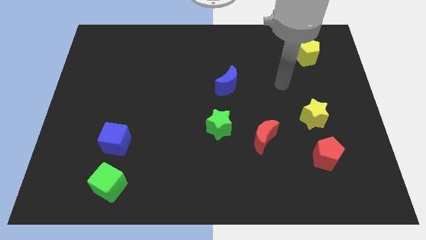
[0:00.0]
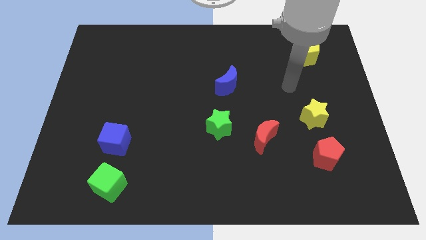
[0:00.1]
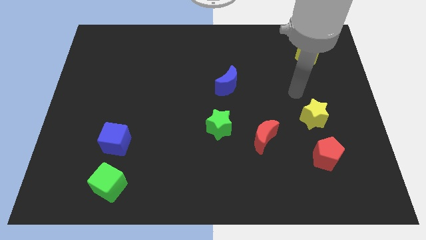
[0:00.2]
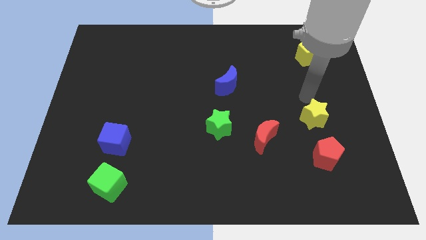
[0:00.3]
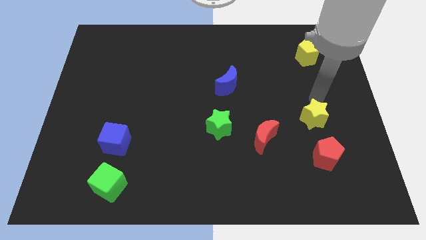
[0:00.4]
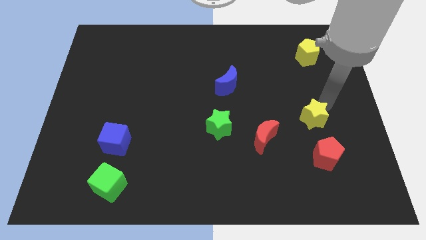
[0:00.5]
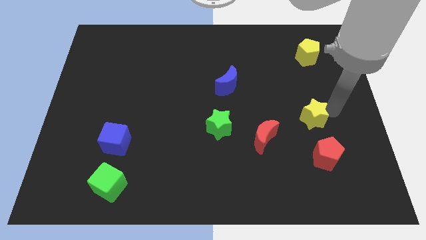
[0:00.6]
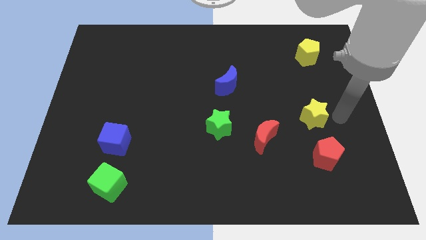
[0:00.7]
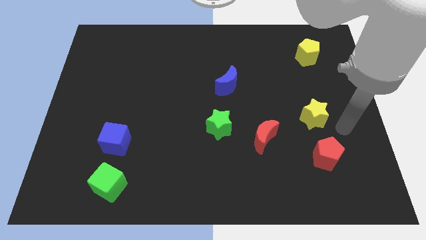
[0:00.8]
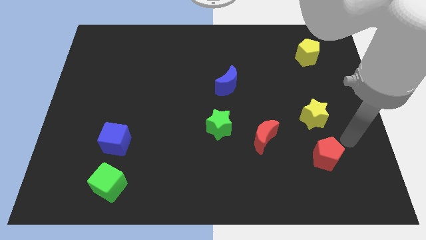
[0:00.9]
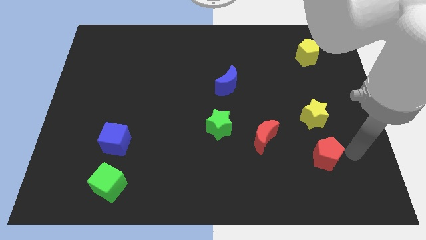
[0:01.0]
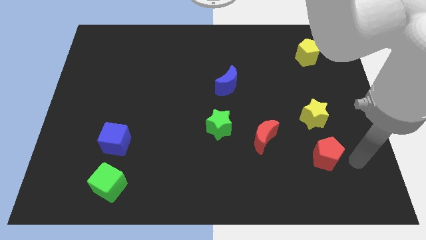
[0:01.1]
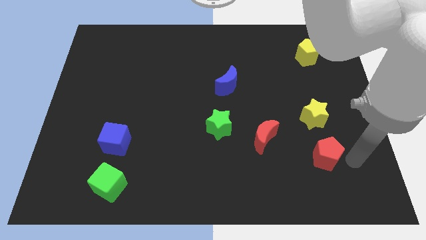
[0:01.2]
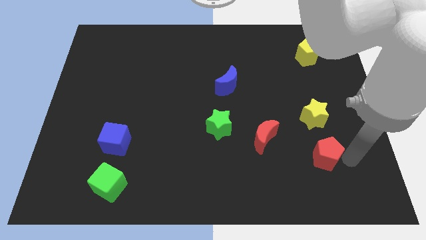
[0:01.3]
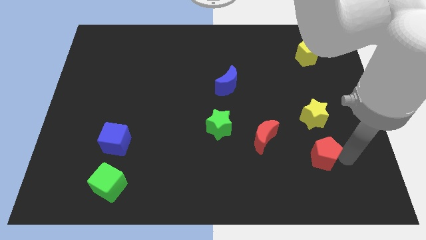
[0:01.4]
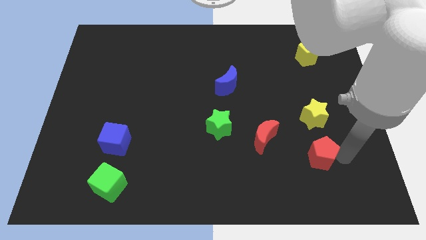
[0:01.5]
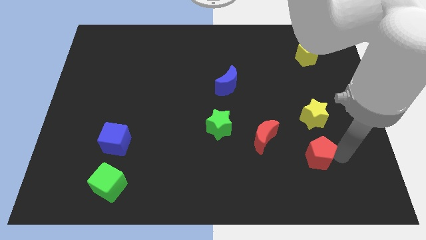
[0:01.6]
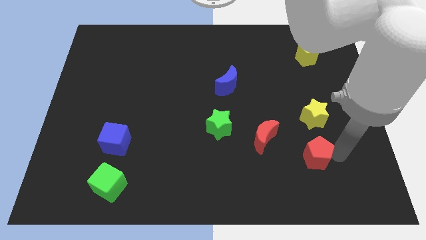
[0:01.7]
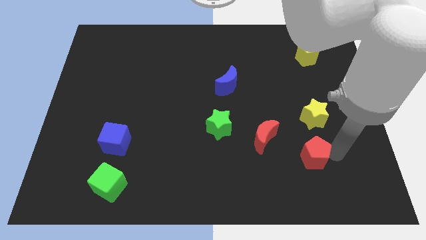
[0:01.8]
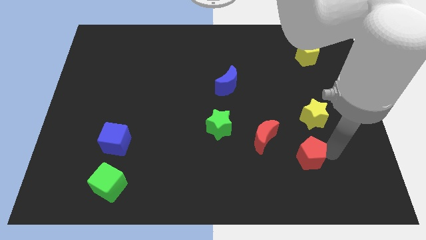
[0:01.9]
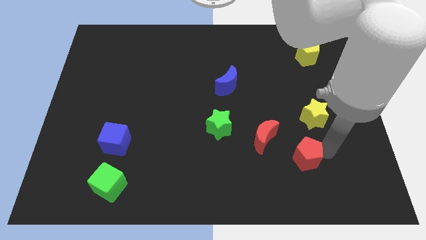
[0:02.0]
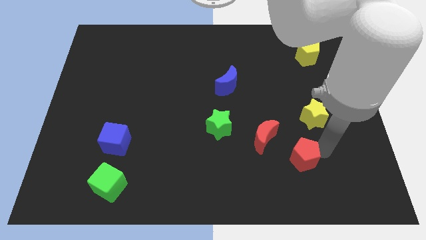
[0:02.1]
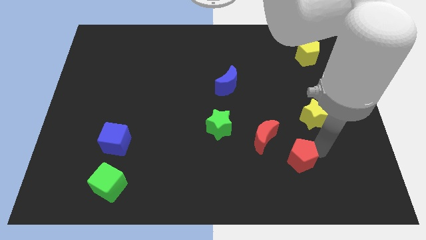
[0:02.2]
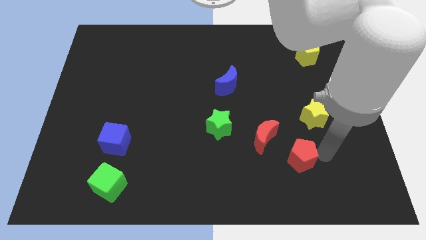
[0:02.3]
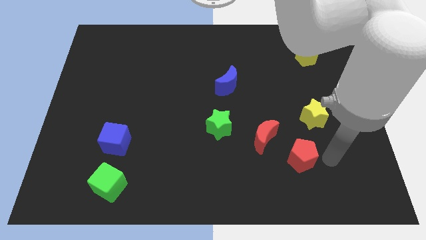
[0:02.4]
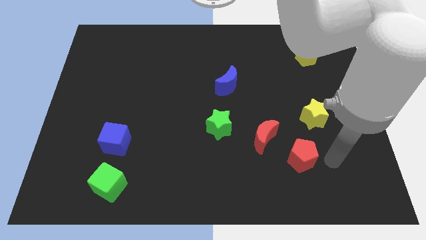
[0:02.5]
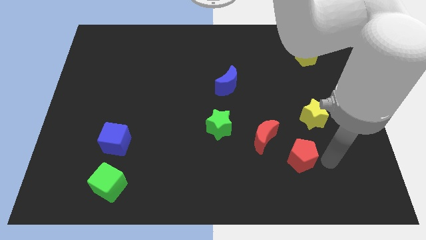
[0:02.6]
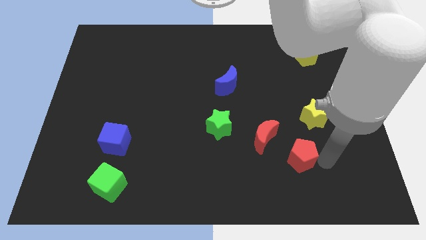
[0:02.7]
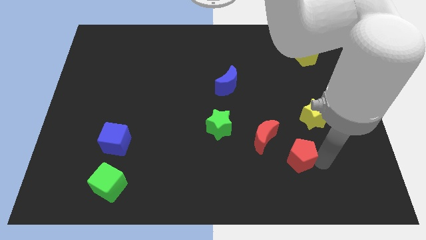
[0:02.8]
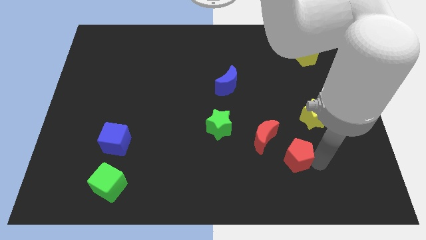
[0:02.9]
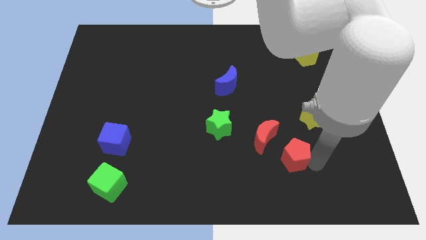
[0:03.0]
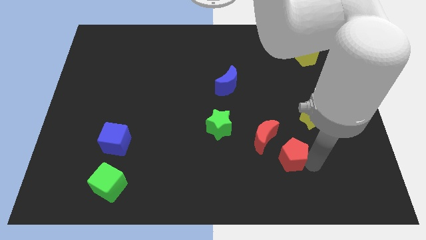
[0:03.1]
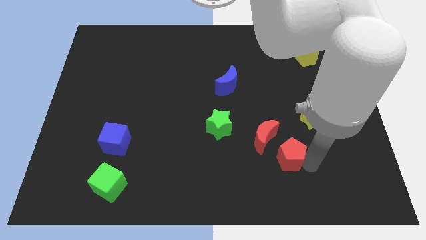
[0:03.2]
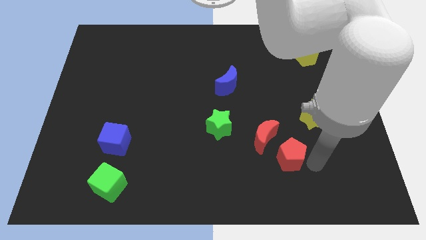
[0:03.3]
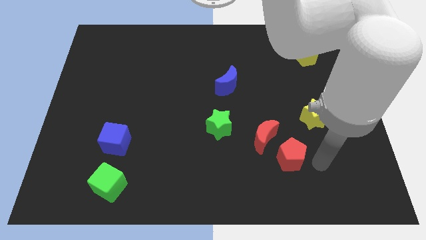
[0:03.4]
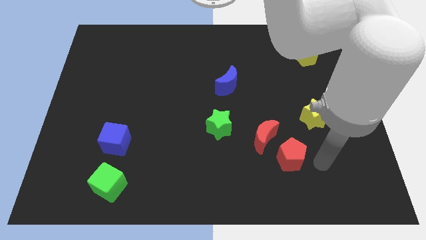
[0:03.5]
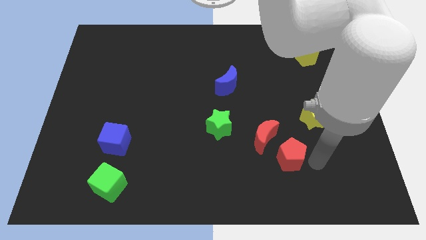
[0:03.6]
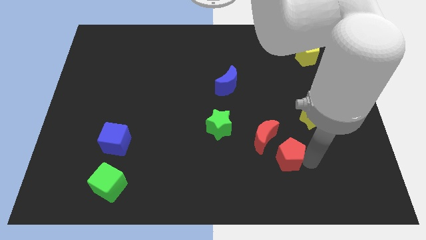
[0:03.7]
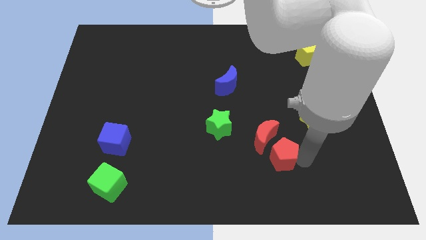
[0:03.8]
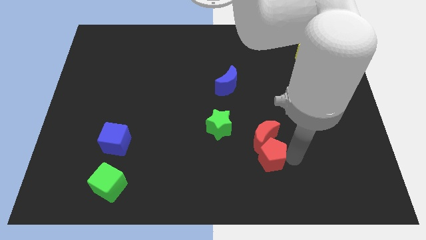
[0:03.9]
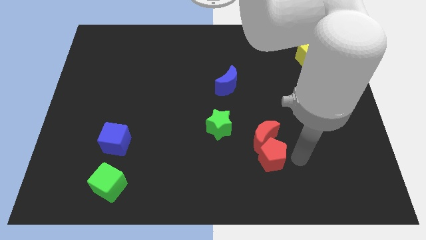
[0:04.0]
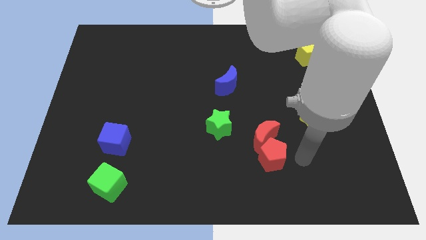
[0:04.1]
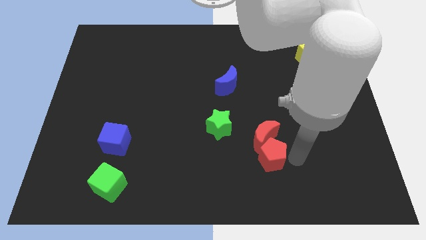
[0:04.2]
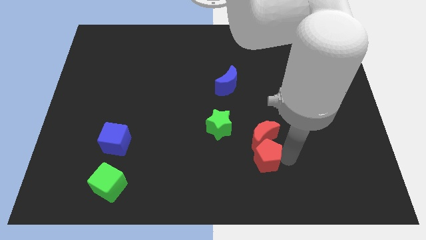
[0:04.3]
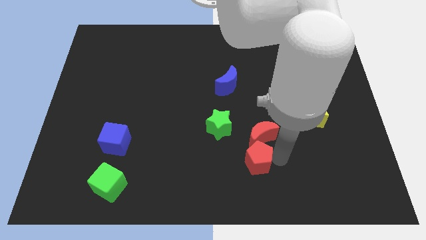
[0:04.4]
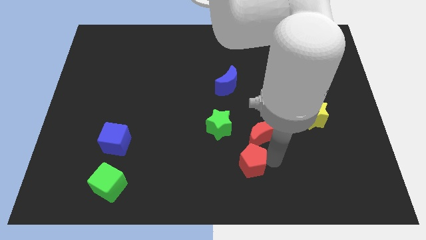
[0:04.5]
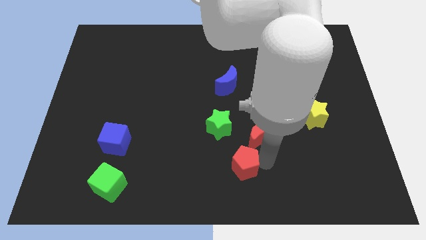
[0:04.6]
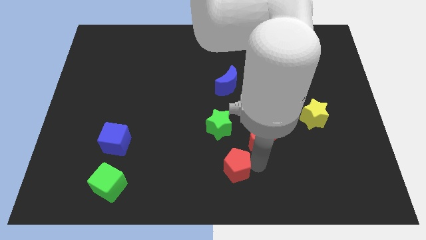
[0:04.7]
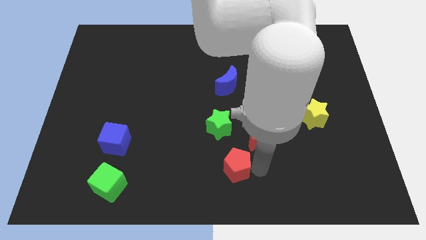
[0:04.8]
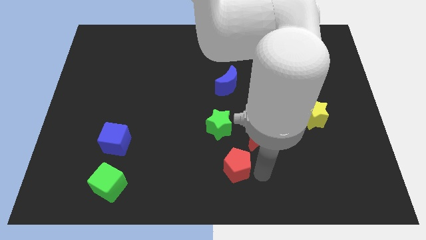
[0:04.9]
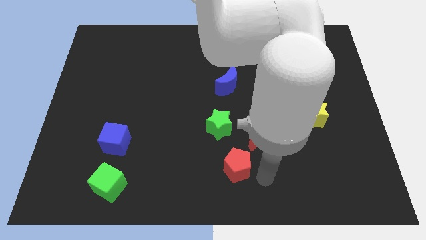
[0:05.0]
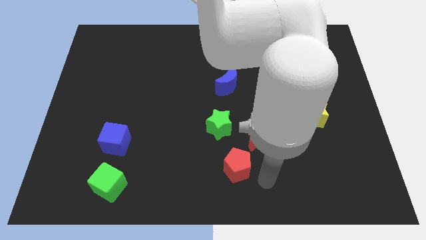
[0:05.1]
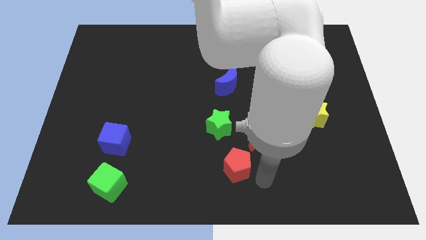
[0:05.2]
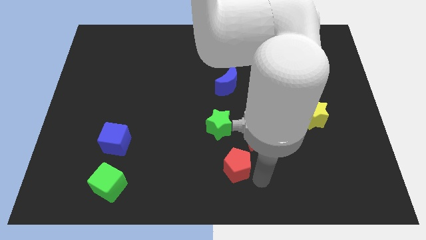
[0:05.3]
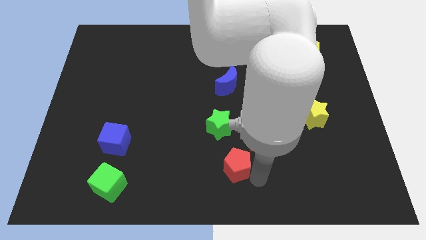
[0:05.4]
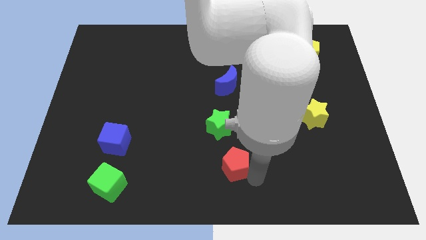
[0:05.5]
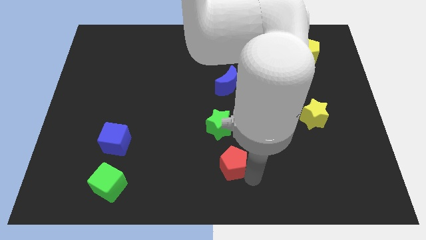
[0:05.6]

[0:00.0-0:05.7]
push the red pentagon left

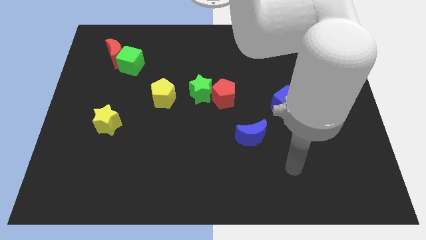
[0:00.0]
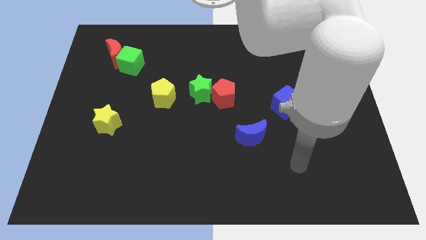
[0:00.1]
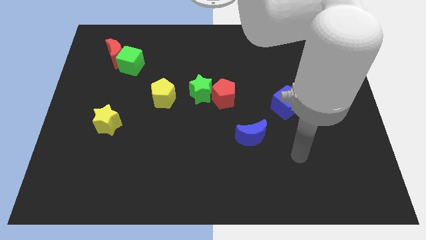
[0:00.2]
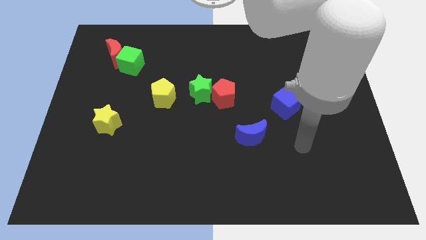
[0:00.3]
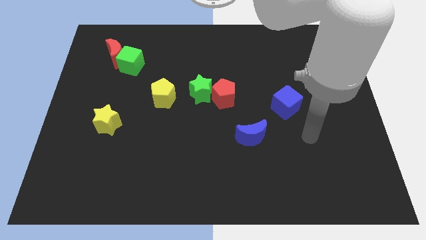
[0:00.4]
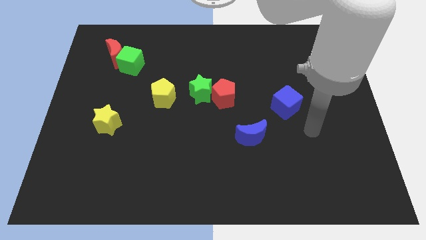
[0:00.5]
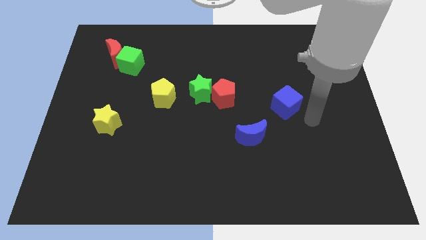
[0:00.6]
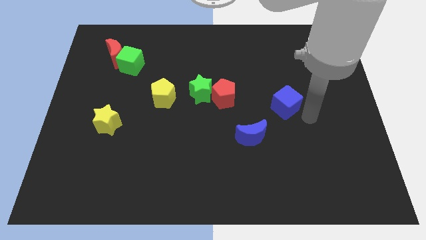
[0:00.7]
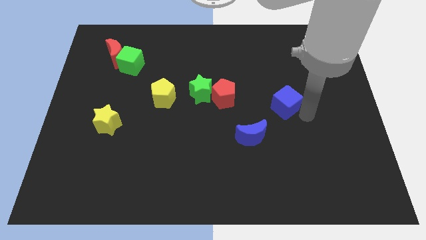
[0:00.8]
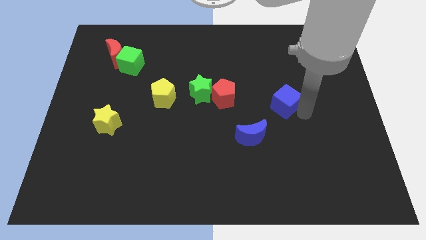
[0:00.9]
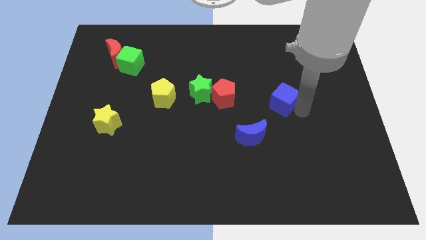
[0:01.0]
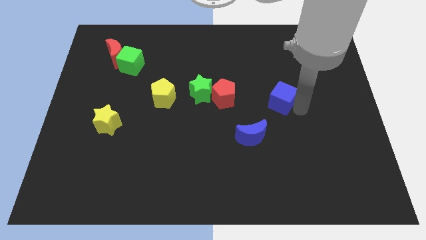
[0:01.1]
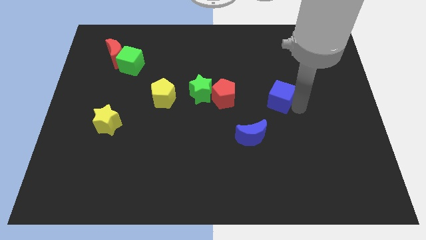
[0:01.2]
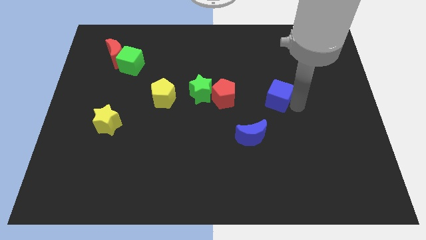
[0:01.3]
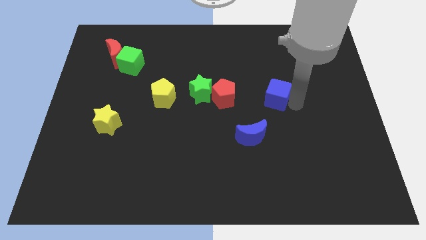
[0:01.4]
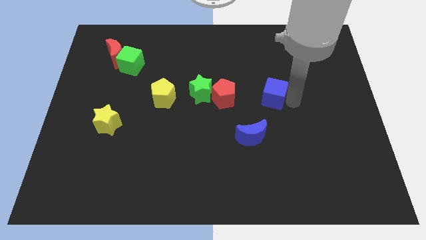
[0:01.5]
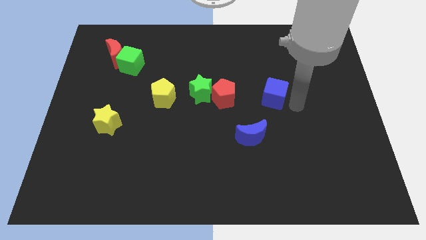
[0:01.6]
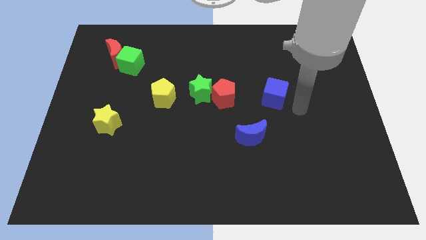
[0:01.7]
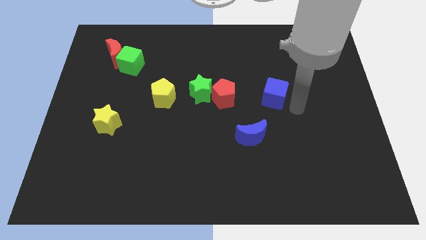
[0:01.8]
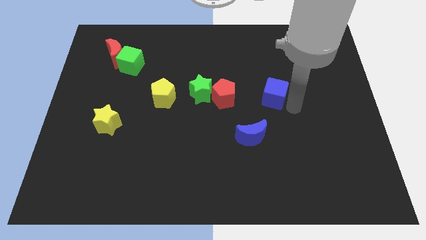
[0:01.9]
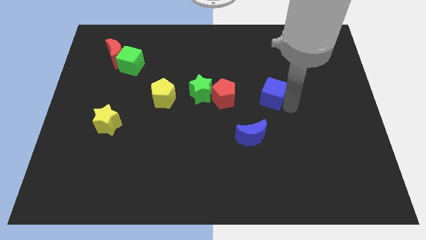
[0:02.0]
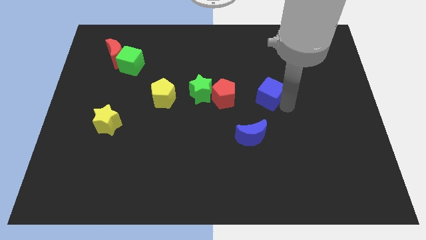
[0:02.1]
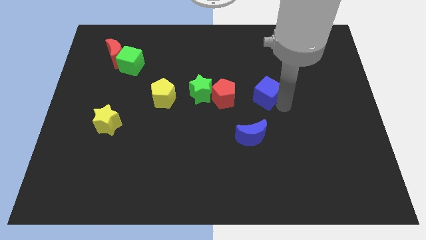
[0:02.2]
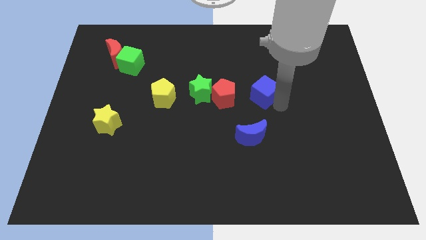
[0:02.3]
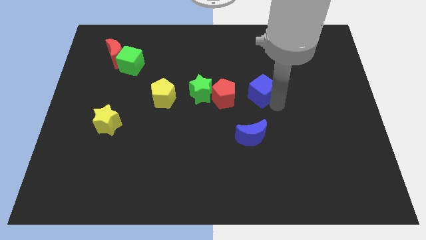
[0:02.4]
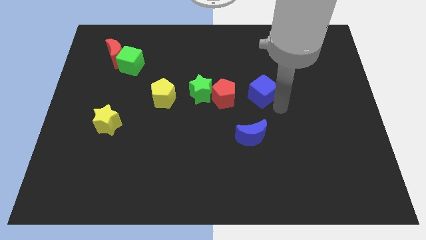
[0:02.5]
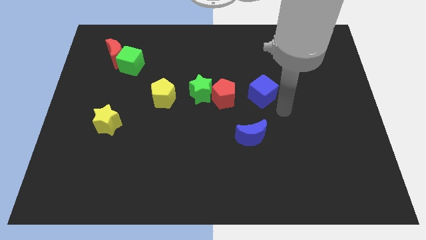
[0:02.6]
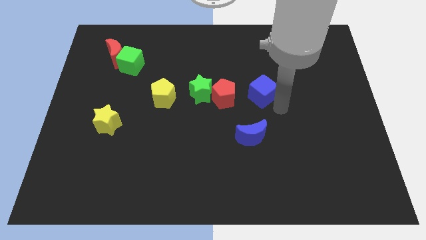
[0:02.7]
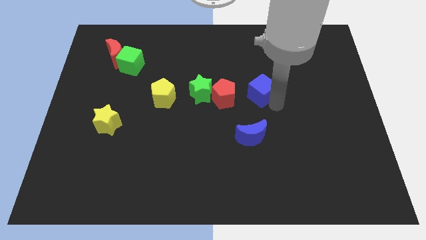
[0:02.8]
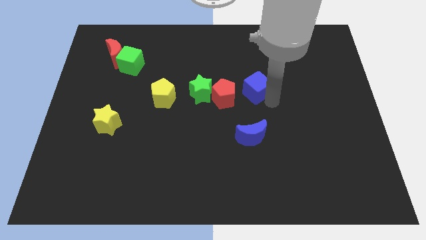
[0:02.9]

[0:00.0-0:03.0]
slide the blue cube a little upwards and then to the left
